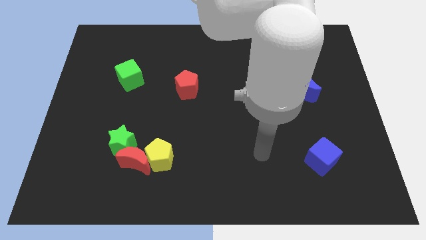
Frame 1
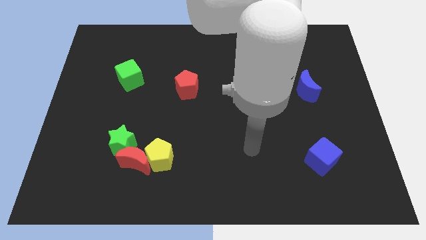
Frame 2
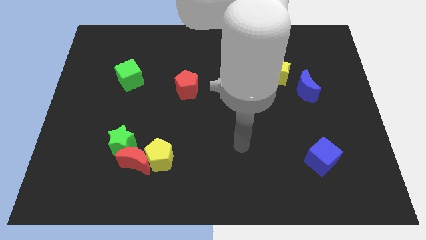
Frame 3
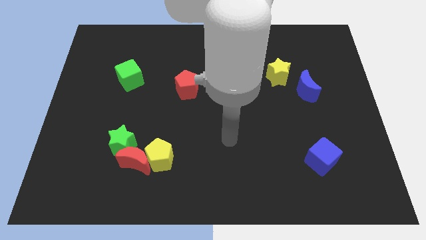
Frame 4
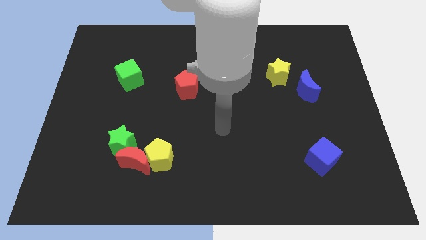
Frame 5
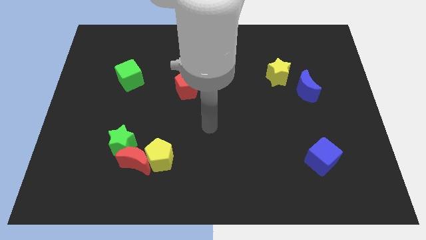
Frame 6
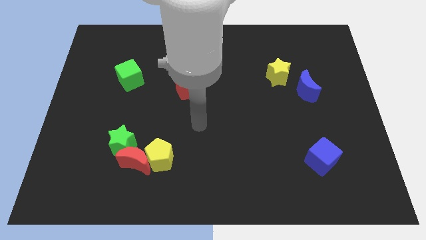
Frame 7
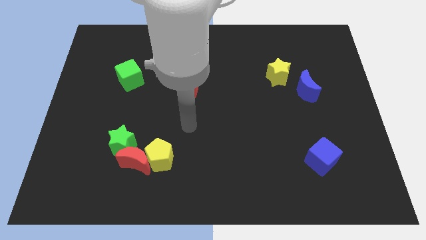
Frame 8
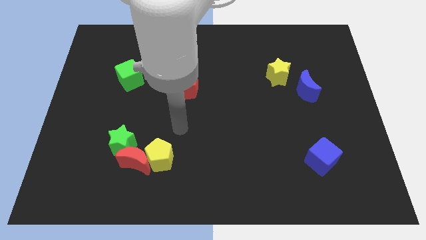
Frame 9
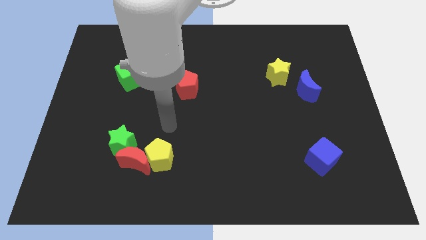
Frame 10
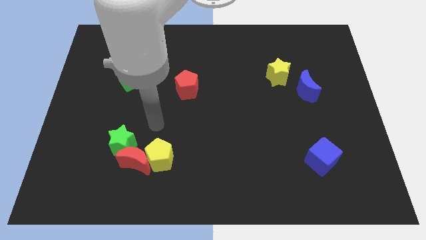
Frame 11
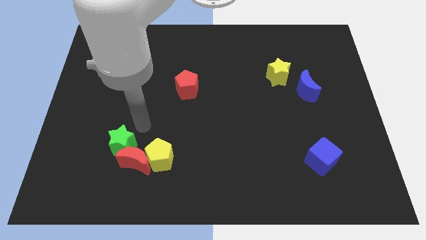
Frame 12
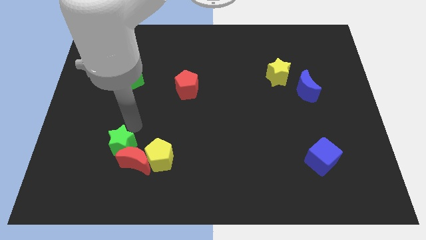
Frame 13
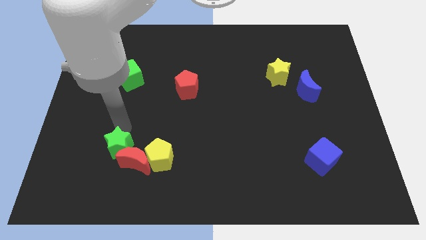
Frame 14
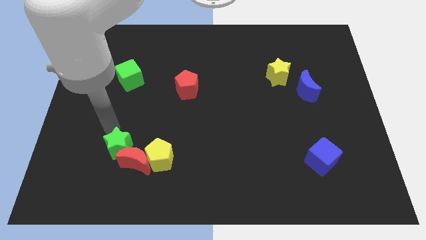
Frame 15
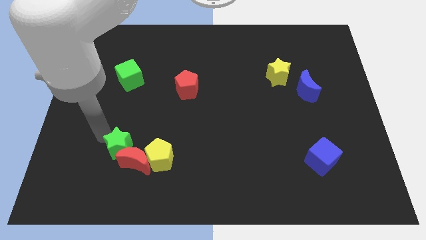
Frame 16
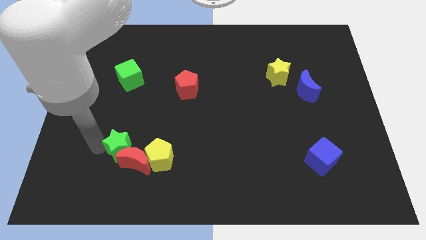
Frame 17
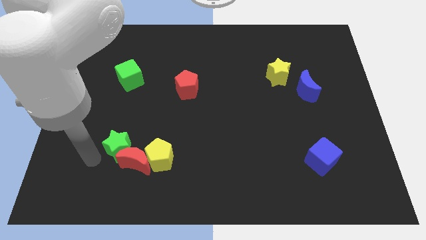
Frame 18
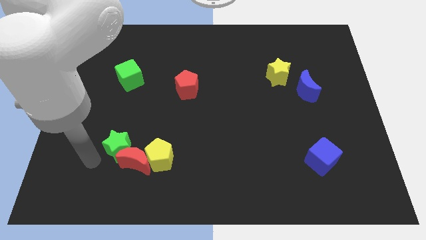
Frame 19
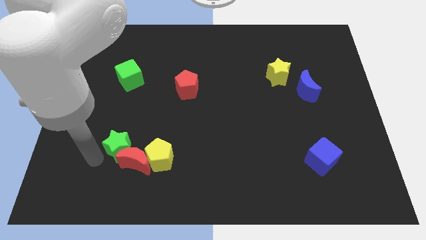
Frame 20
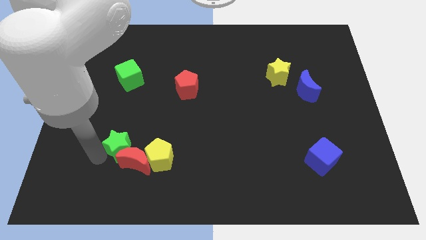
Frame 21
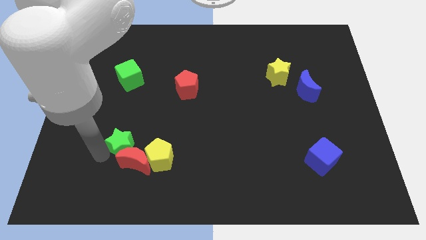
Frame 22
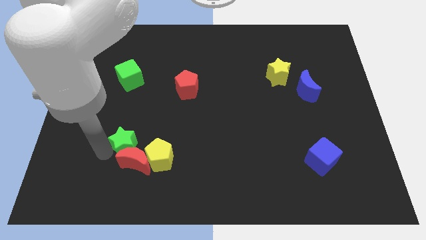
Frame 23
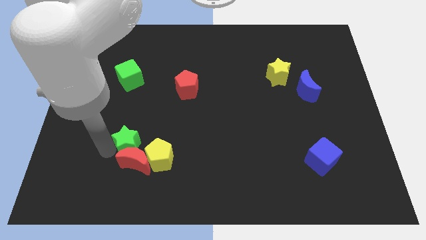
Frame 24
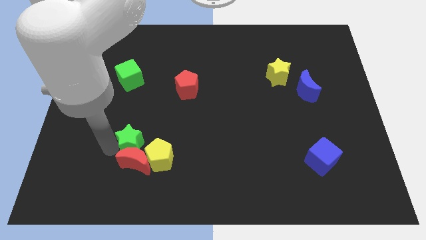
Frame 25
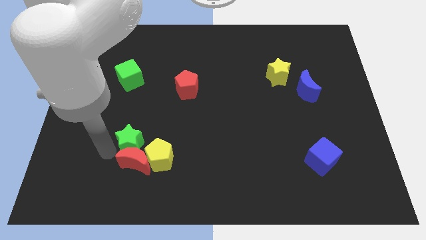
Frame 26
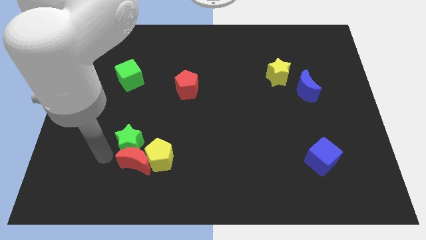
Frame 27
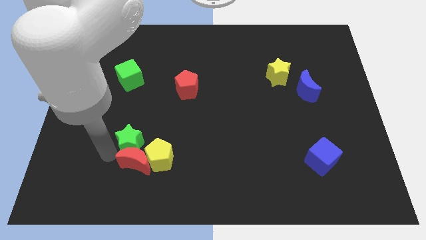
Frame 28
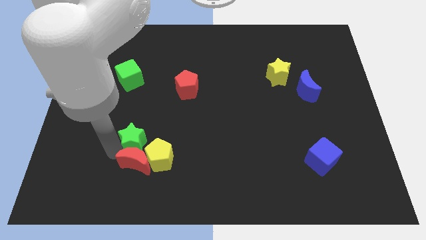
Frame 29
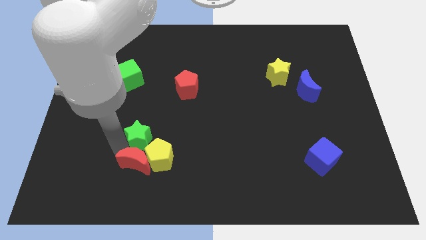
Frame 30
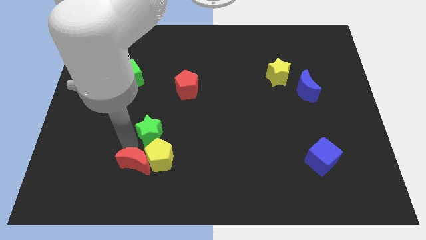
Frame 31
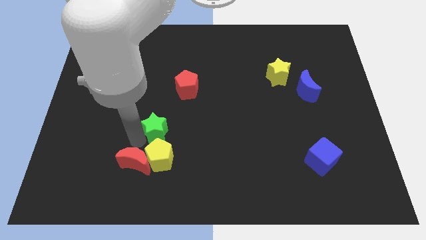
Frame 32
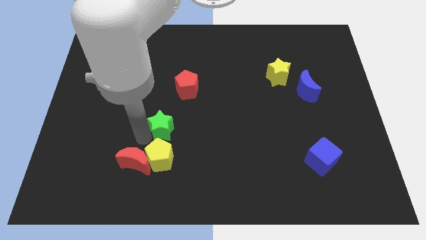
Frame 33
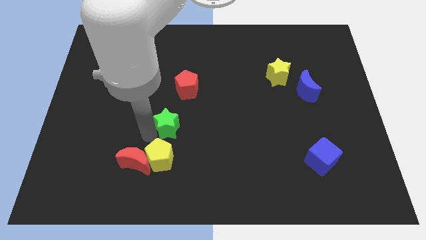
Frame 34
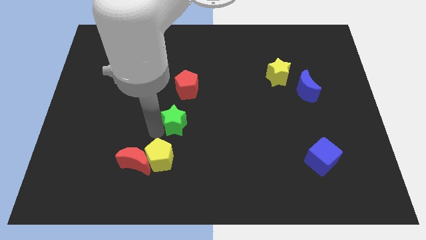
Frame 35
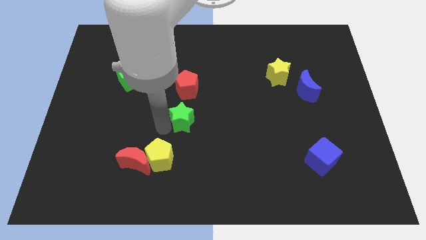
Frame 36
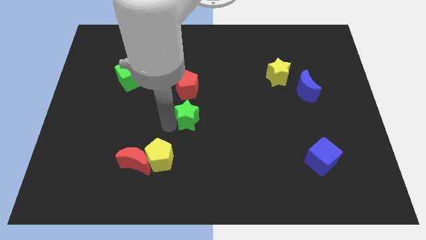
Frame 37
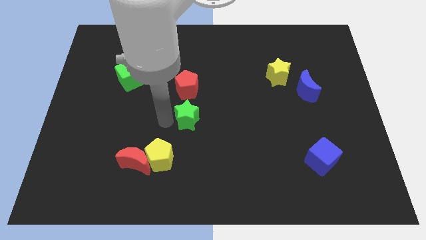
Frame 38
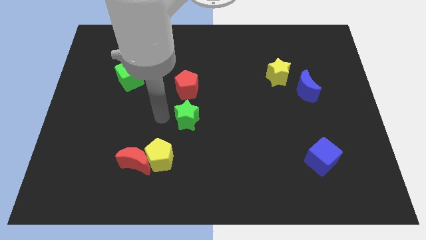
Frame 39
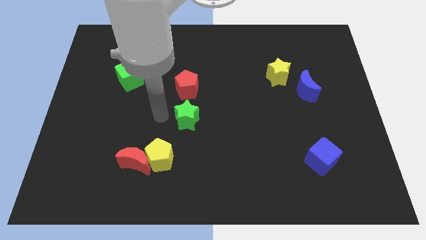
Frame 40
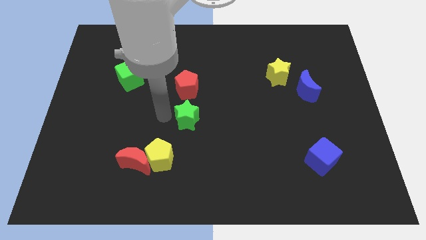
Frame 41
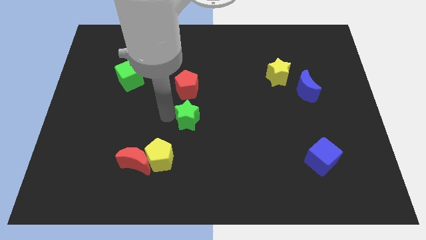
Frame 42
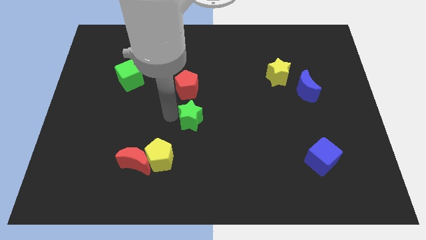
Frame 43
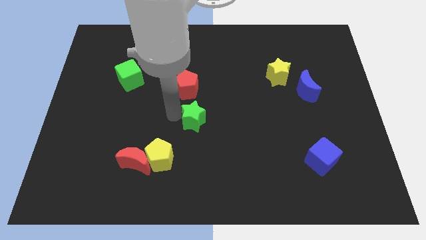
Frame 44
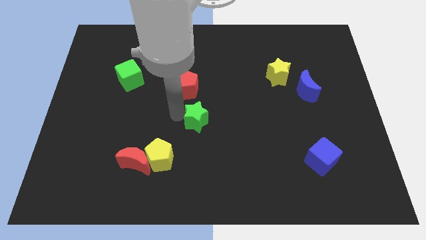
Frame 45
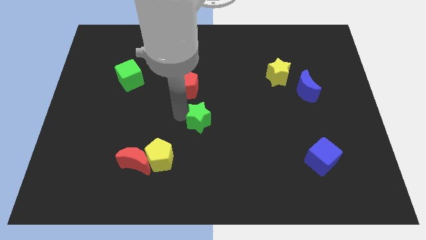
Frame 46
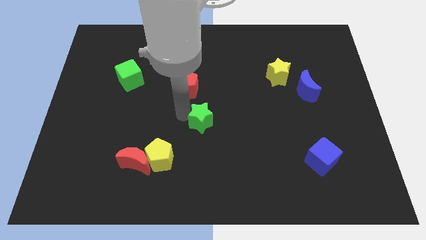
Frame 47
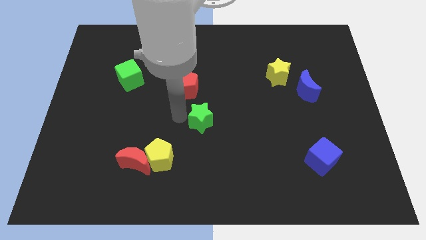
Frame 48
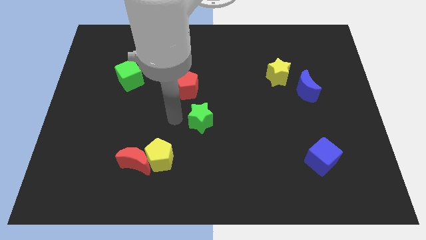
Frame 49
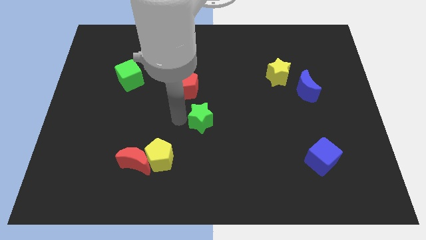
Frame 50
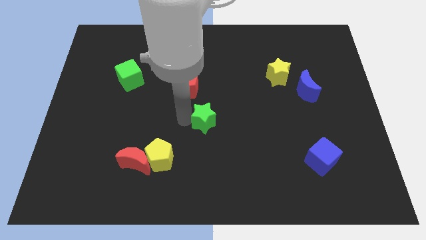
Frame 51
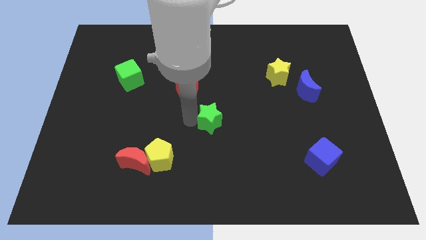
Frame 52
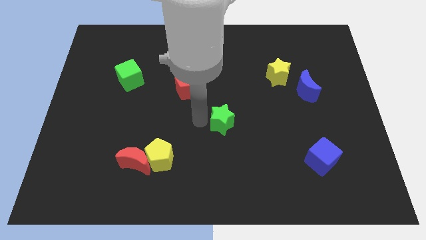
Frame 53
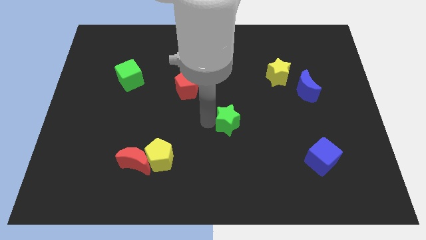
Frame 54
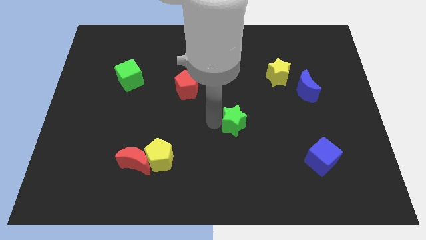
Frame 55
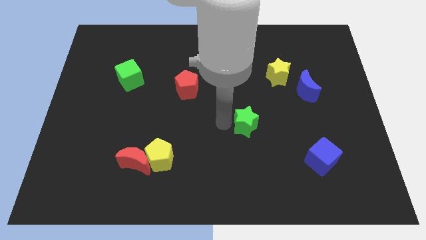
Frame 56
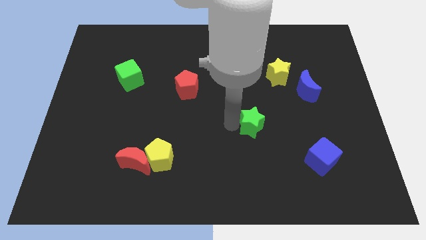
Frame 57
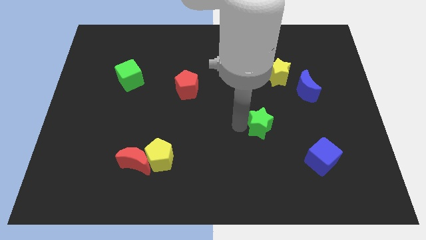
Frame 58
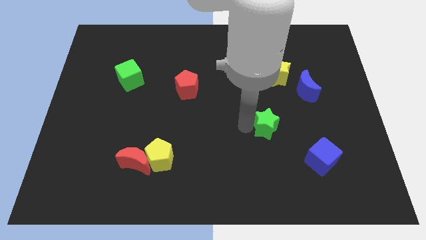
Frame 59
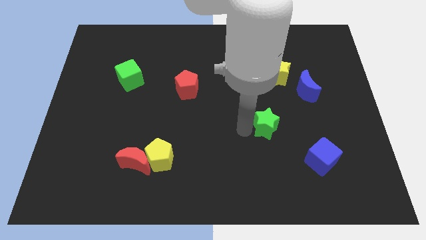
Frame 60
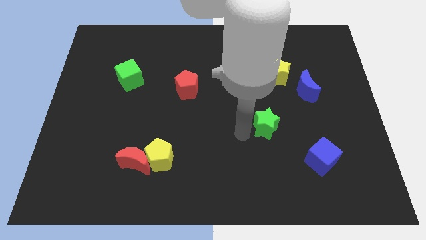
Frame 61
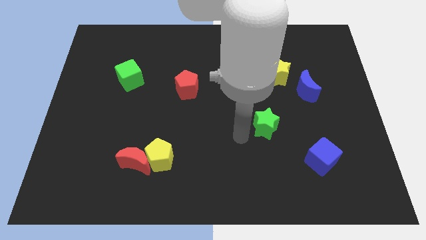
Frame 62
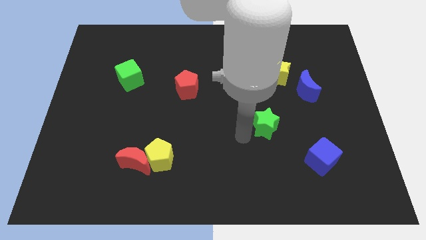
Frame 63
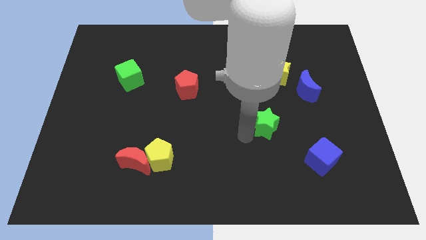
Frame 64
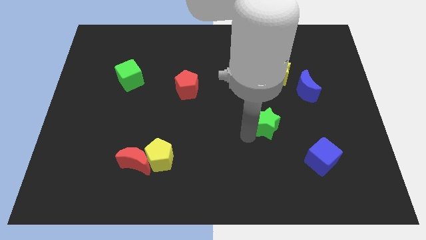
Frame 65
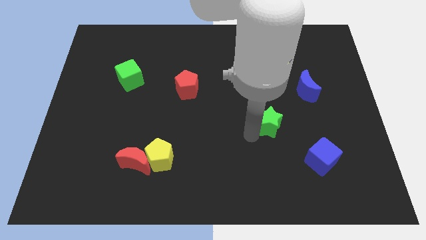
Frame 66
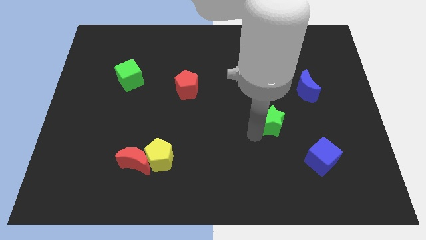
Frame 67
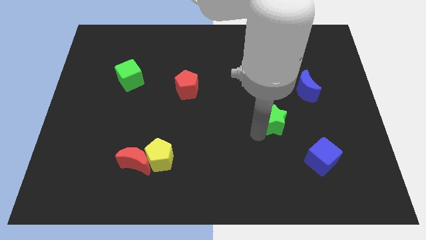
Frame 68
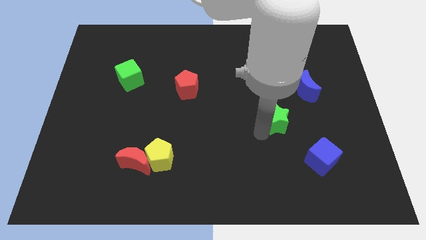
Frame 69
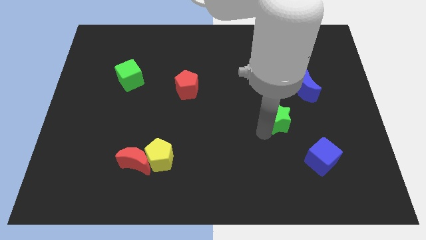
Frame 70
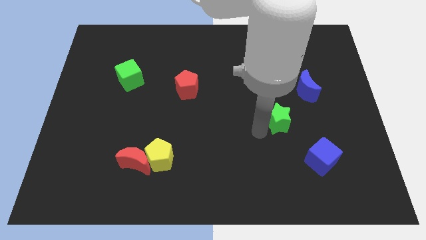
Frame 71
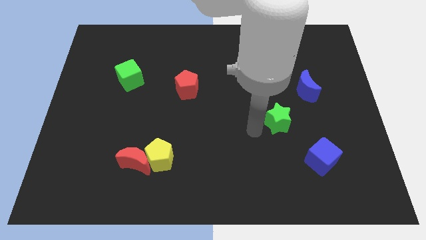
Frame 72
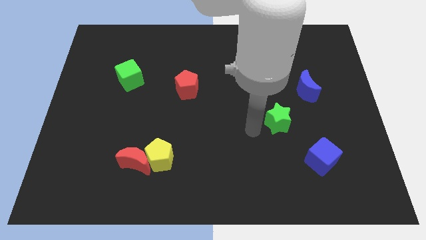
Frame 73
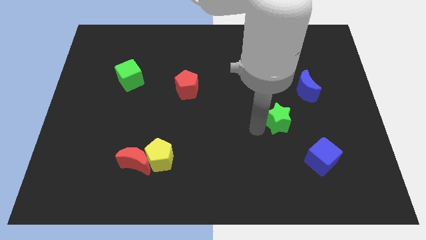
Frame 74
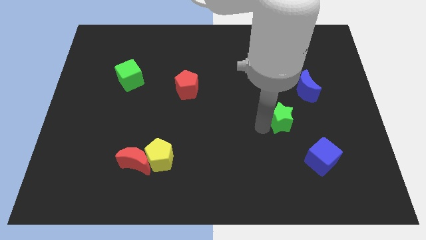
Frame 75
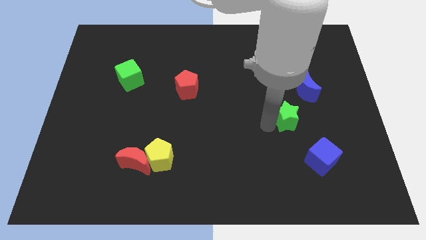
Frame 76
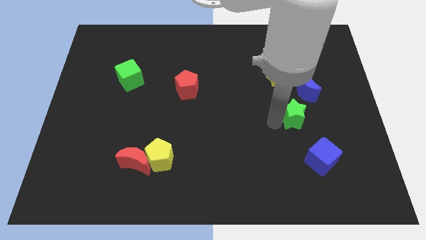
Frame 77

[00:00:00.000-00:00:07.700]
push the green star to the top side of the blue cube
